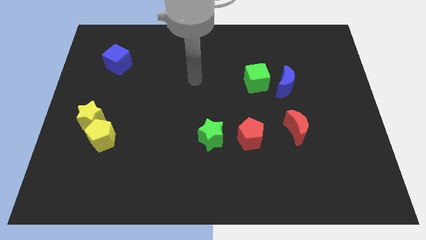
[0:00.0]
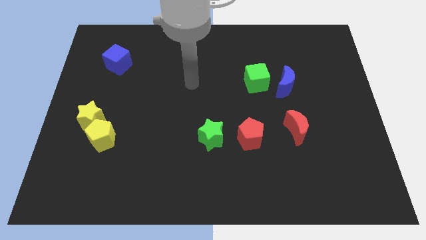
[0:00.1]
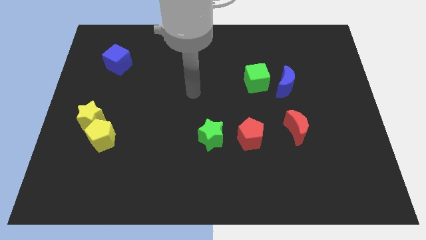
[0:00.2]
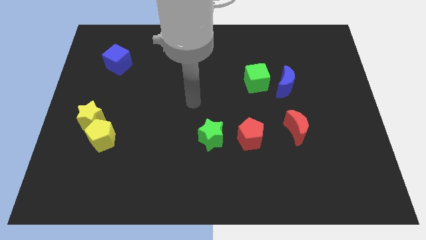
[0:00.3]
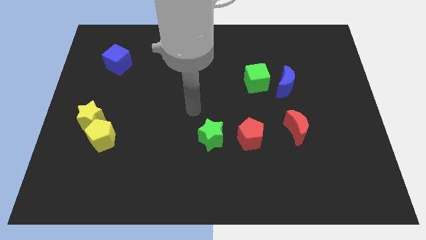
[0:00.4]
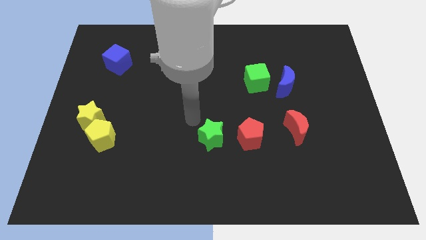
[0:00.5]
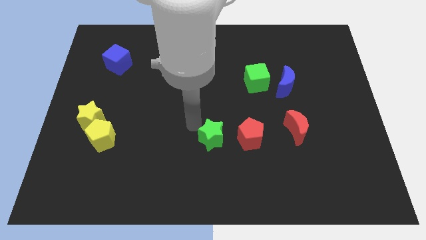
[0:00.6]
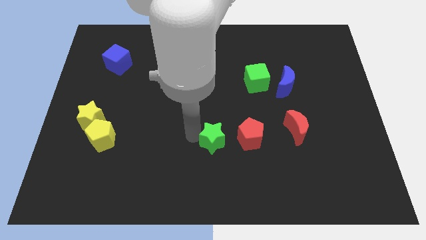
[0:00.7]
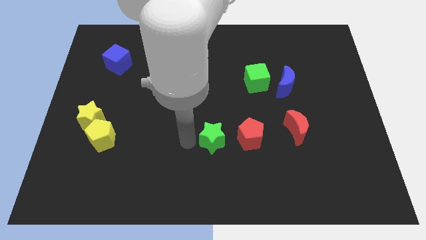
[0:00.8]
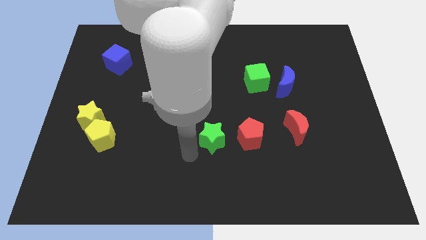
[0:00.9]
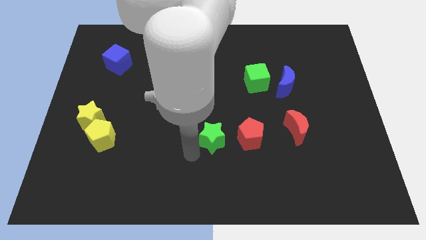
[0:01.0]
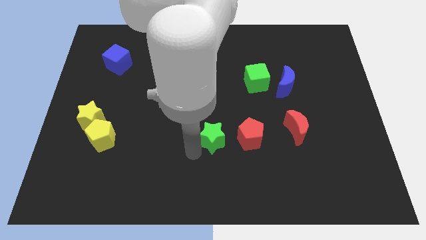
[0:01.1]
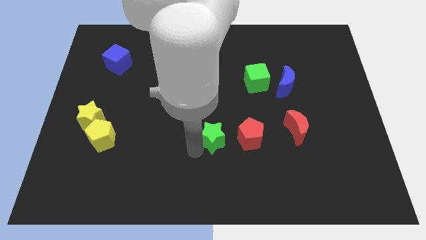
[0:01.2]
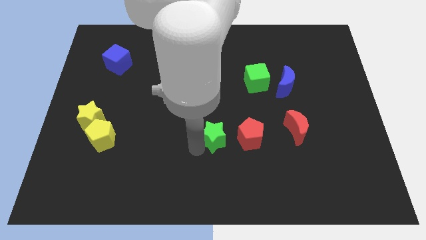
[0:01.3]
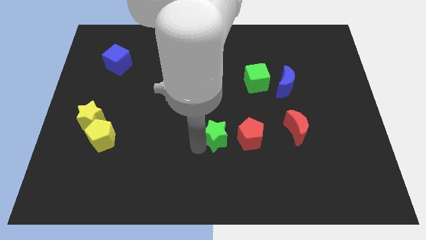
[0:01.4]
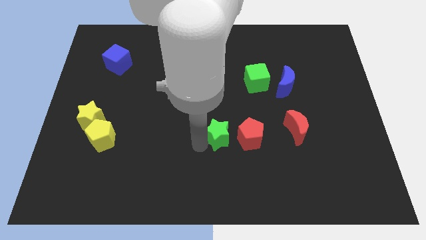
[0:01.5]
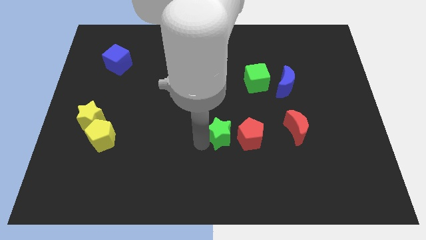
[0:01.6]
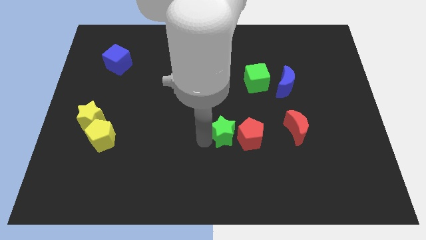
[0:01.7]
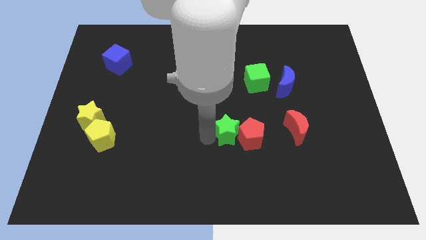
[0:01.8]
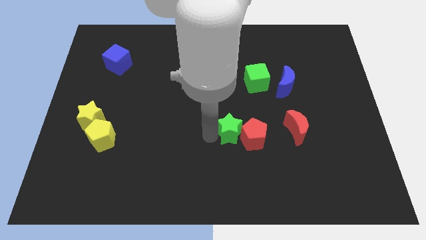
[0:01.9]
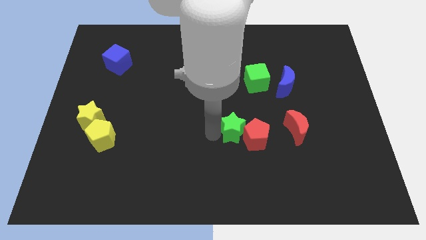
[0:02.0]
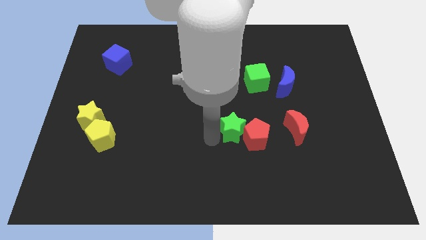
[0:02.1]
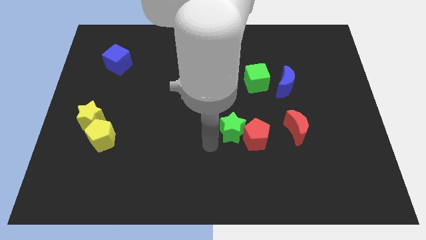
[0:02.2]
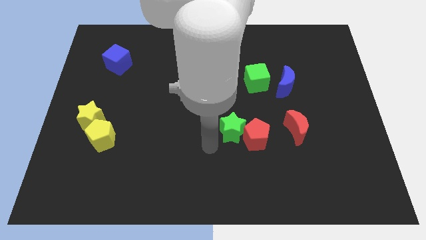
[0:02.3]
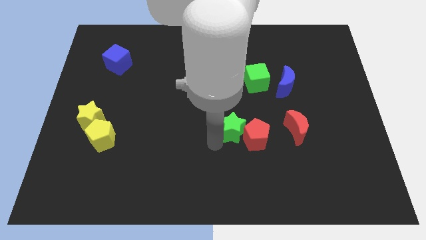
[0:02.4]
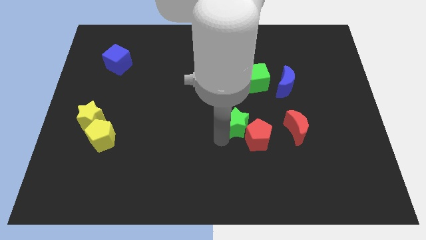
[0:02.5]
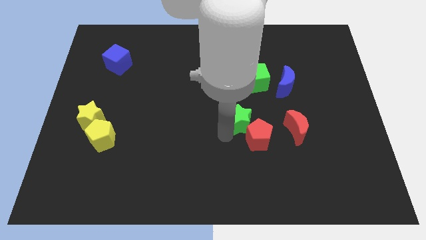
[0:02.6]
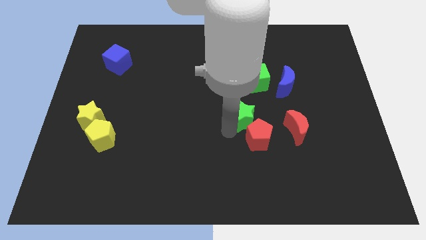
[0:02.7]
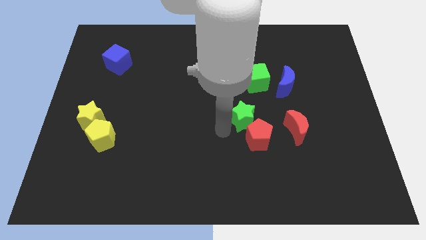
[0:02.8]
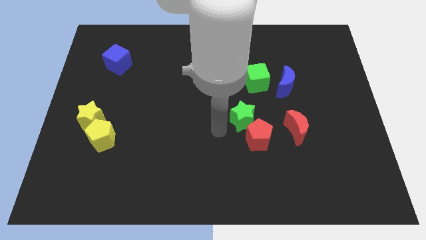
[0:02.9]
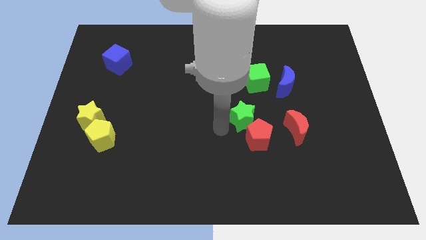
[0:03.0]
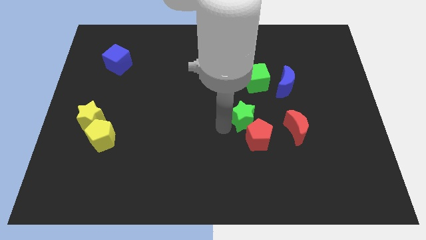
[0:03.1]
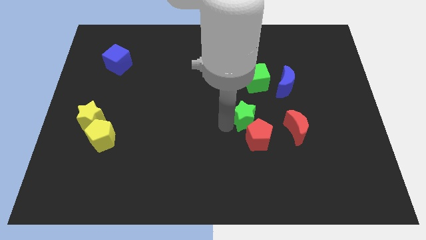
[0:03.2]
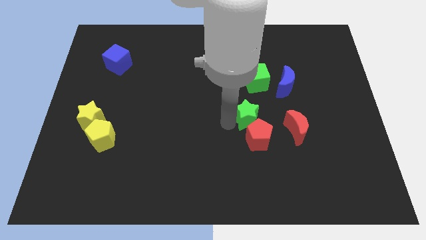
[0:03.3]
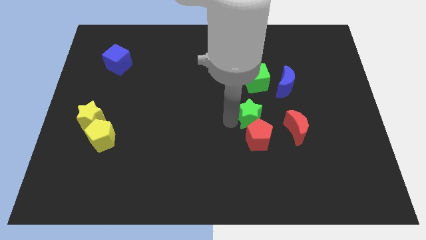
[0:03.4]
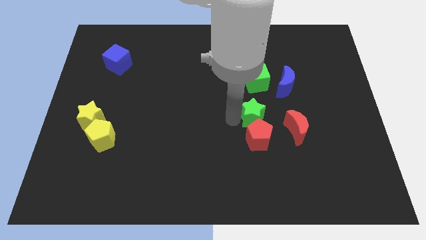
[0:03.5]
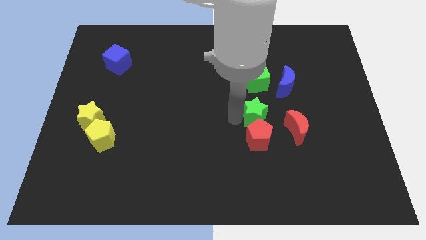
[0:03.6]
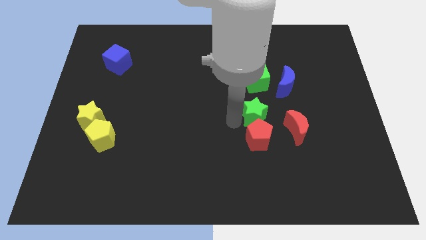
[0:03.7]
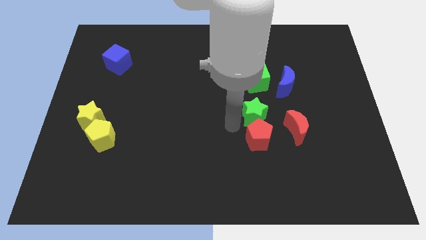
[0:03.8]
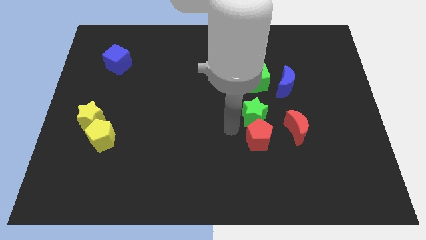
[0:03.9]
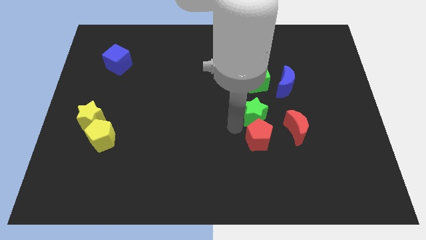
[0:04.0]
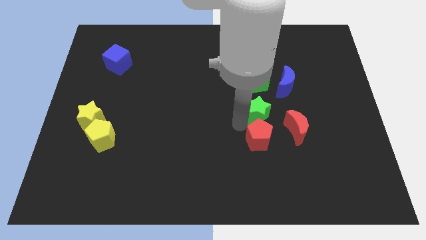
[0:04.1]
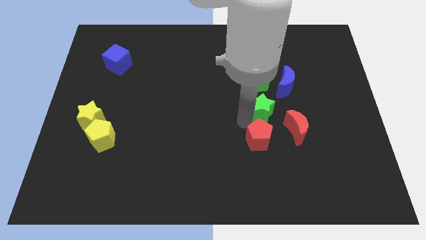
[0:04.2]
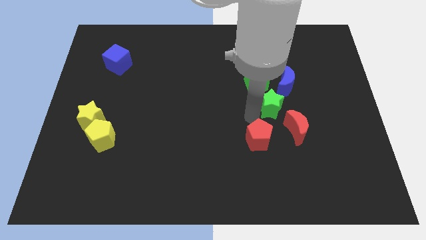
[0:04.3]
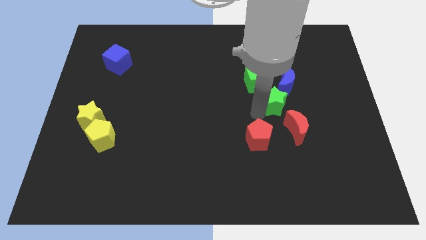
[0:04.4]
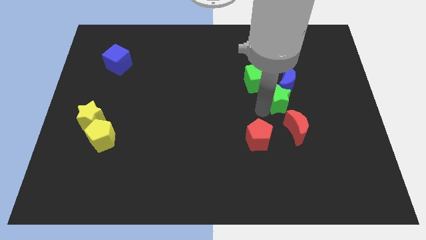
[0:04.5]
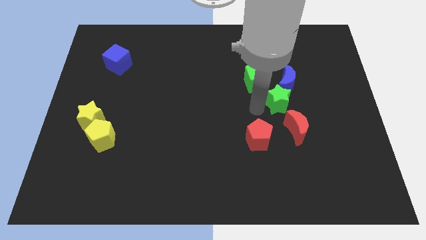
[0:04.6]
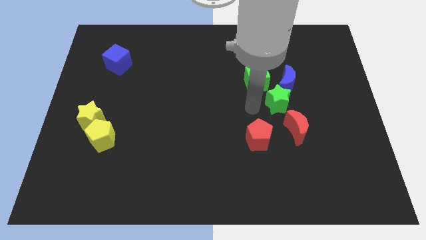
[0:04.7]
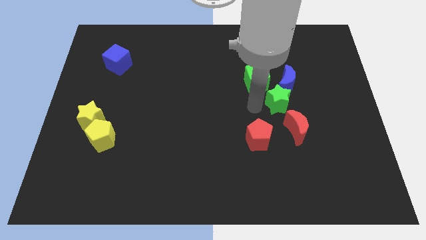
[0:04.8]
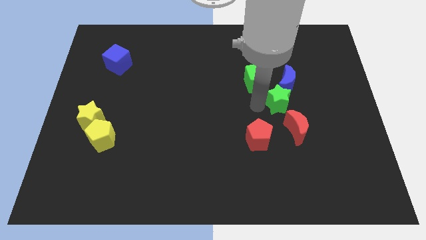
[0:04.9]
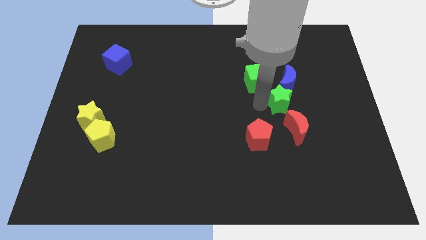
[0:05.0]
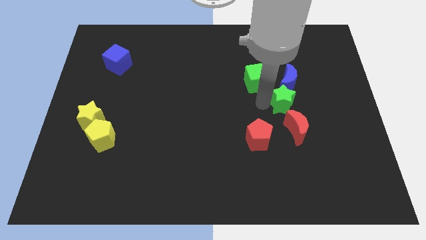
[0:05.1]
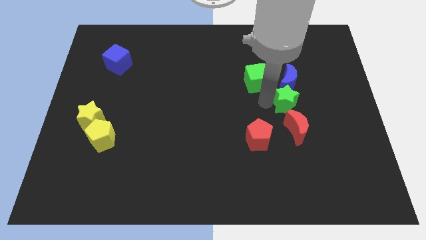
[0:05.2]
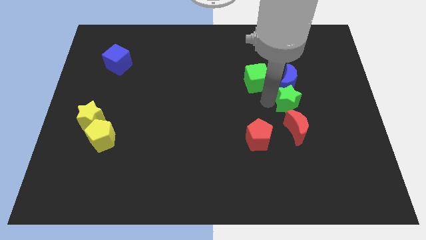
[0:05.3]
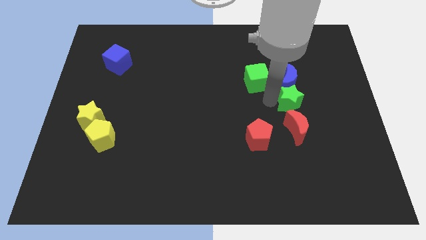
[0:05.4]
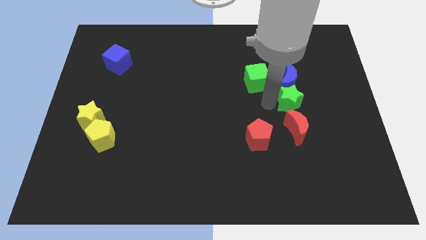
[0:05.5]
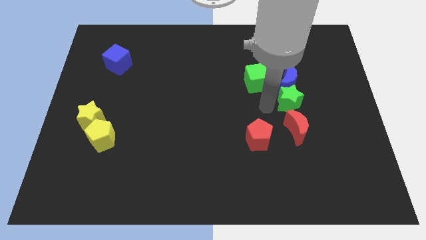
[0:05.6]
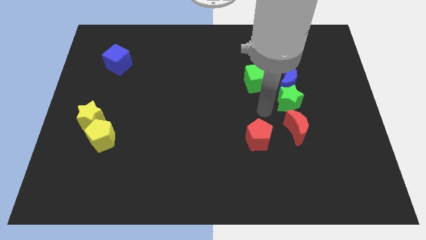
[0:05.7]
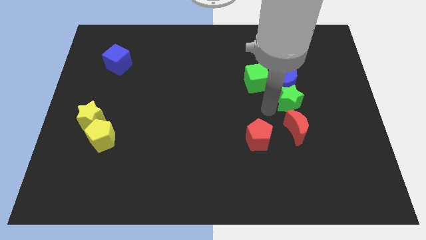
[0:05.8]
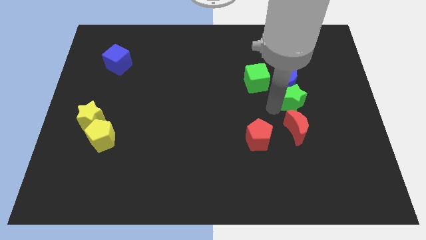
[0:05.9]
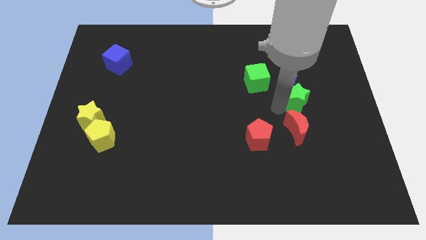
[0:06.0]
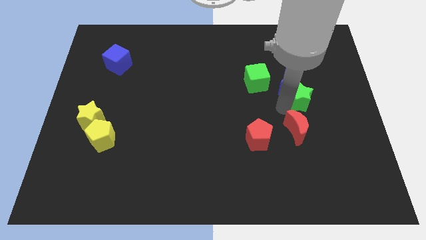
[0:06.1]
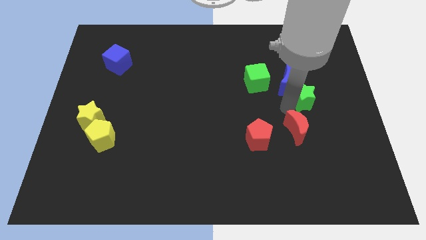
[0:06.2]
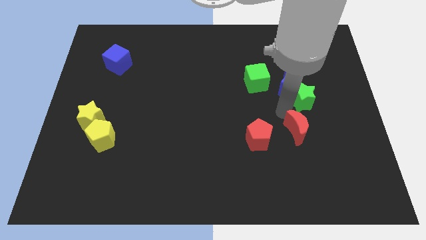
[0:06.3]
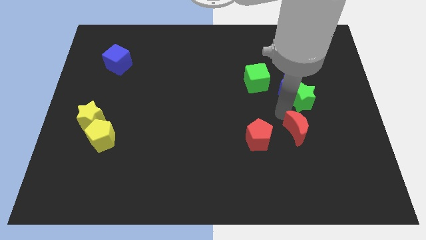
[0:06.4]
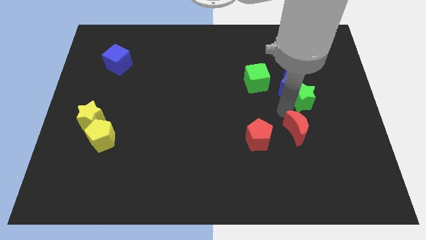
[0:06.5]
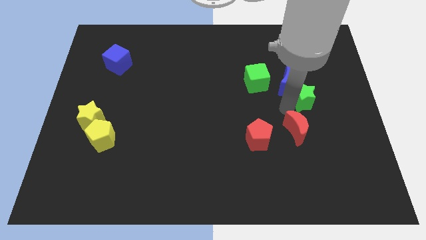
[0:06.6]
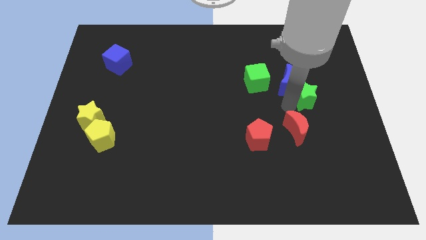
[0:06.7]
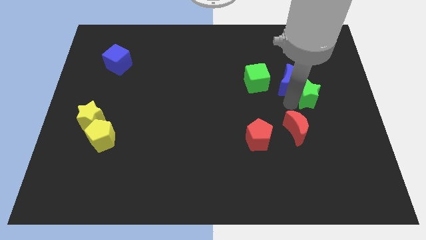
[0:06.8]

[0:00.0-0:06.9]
push the green star just right of the blue moon
